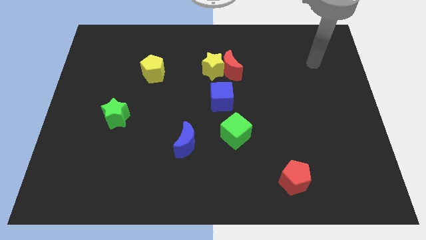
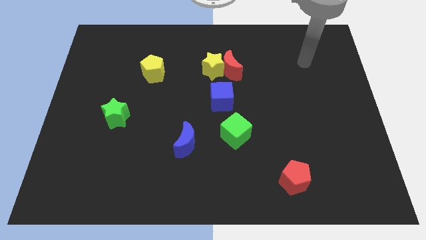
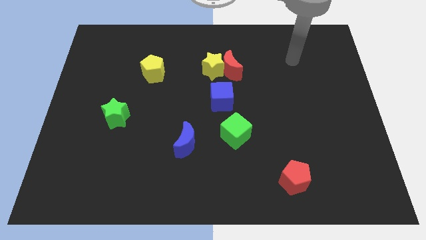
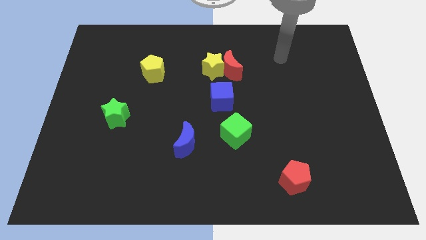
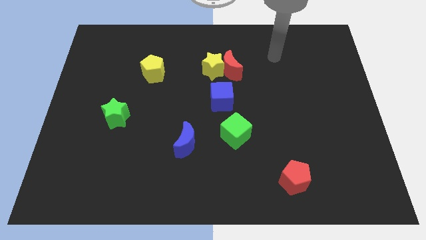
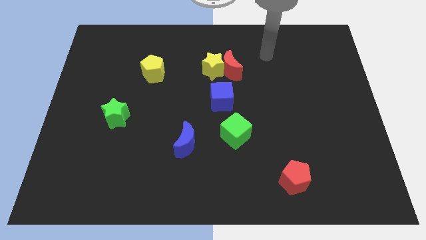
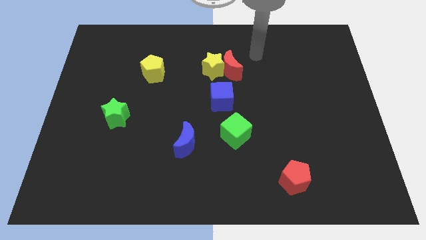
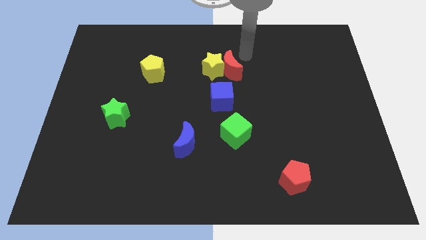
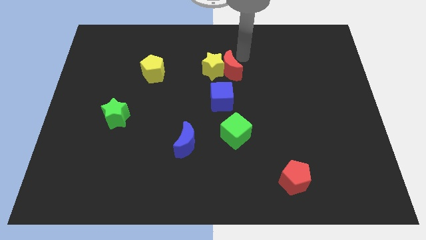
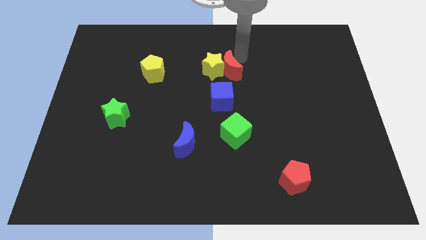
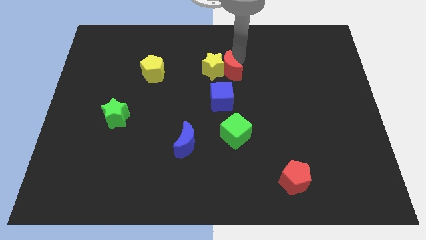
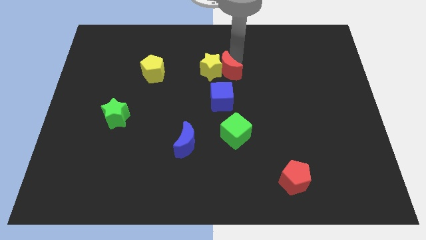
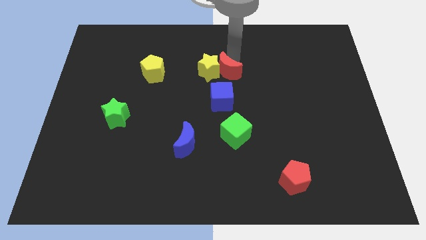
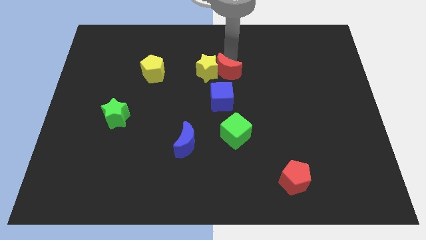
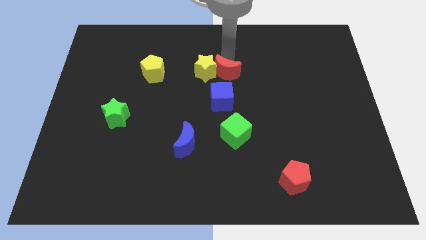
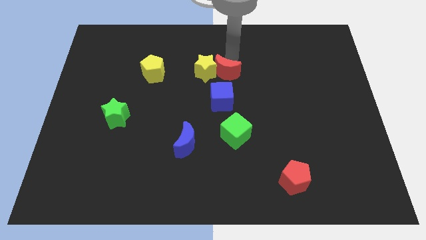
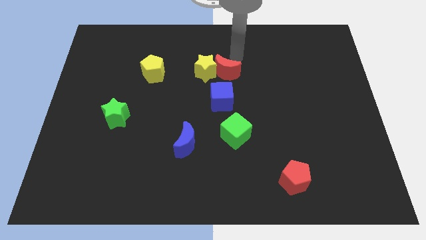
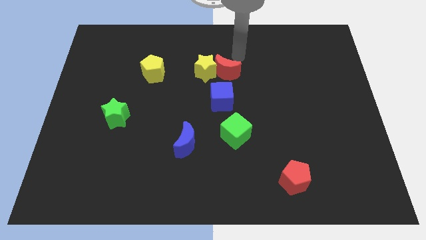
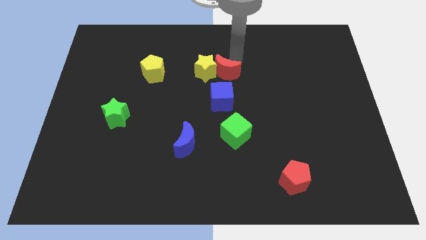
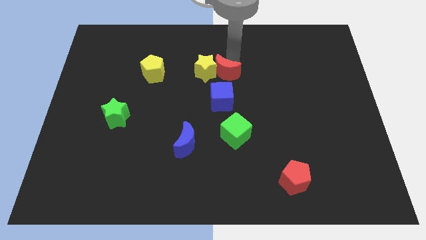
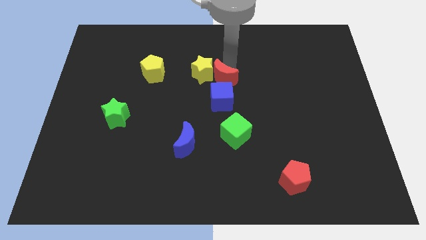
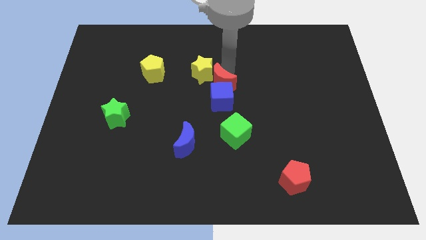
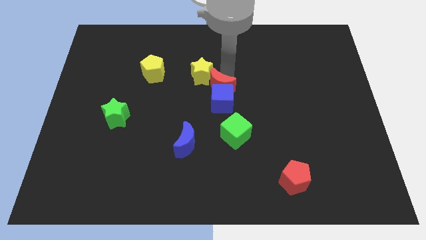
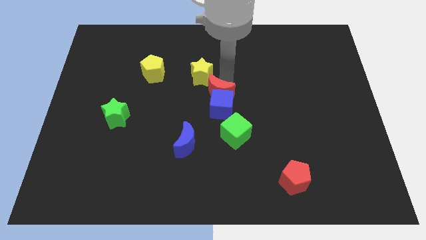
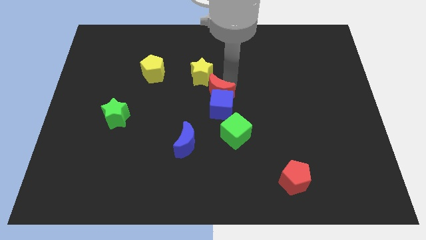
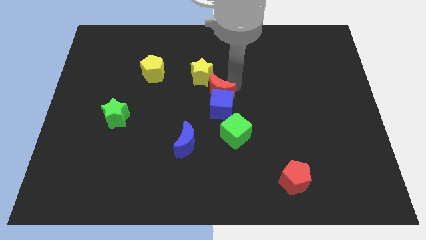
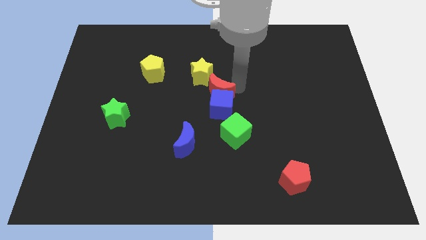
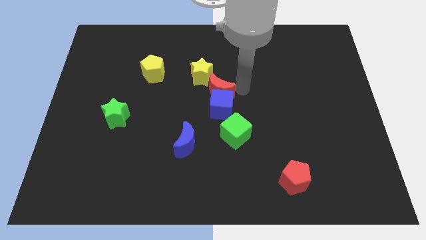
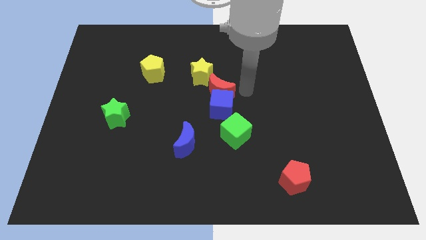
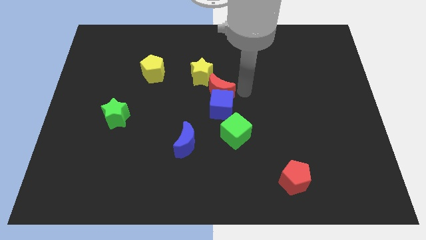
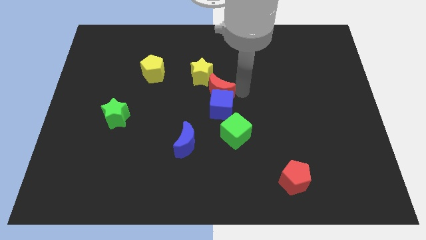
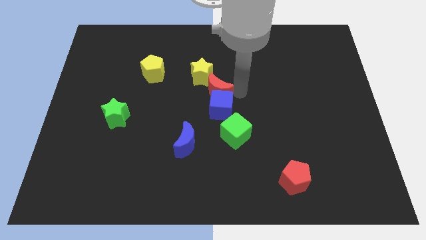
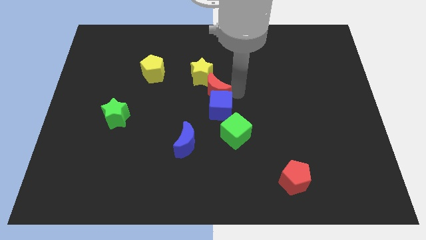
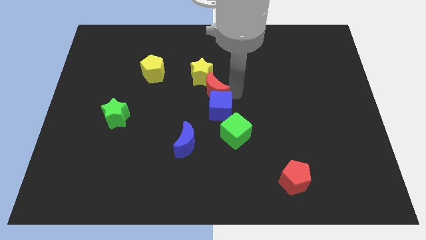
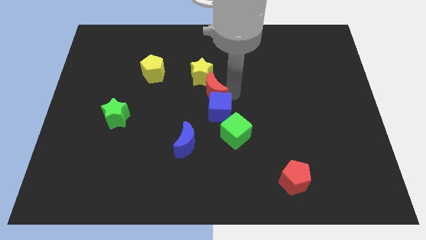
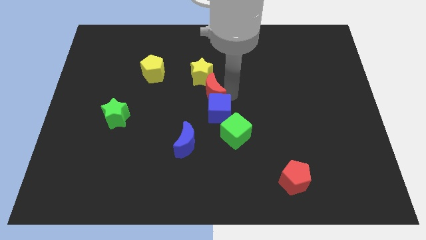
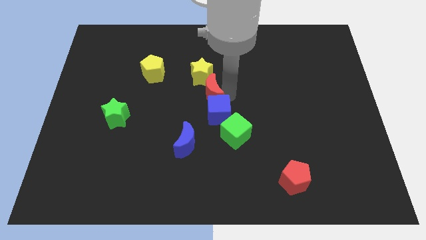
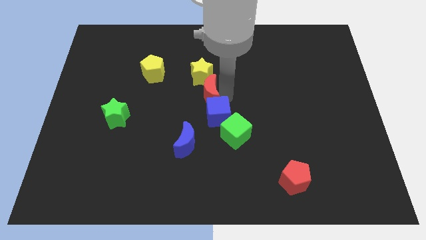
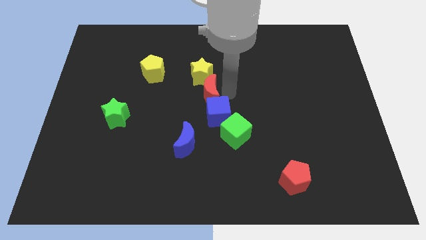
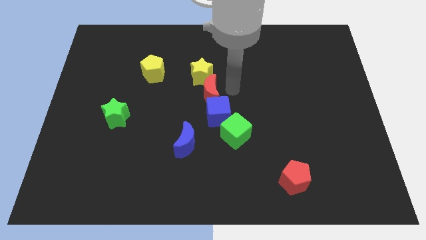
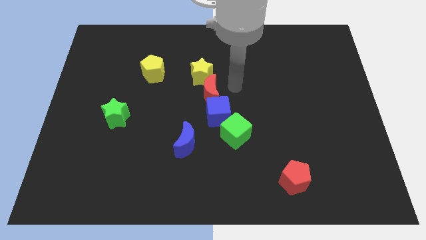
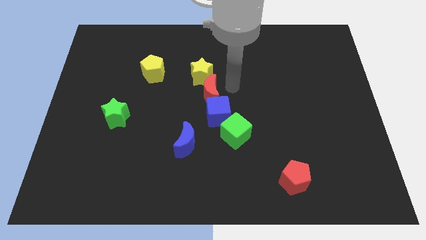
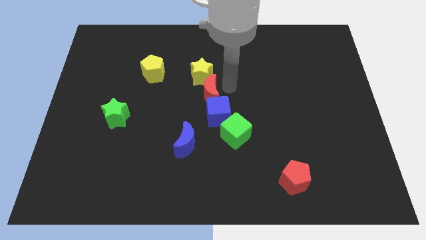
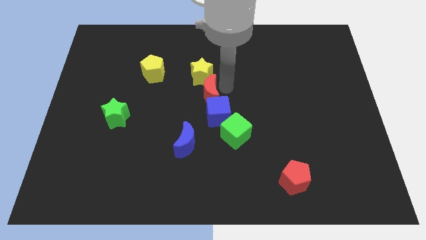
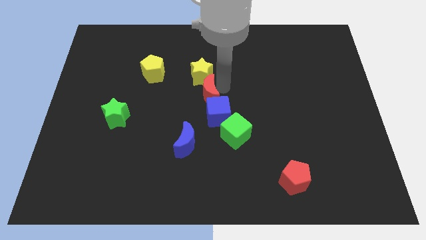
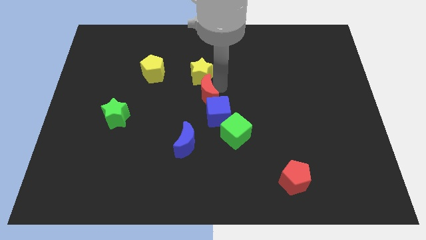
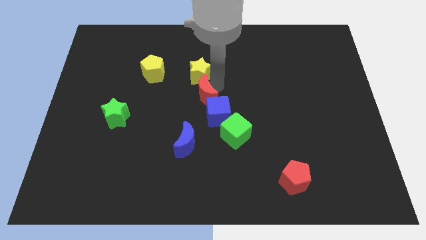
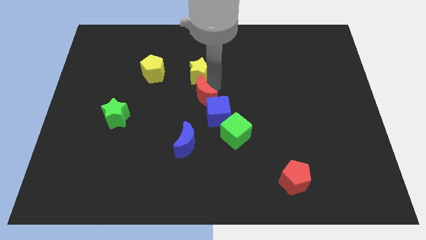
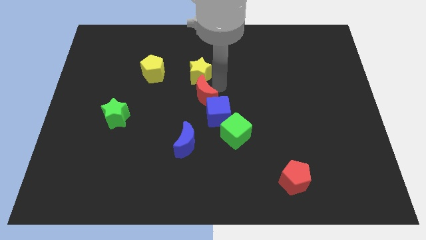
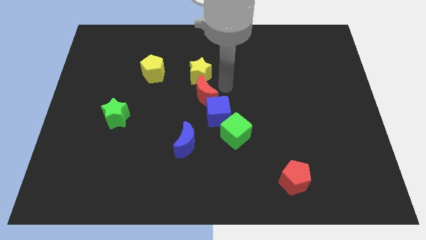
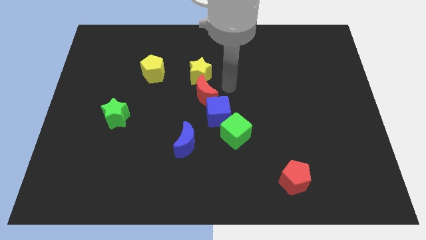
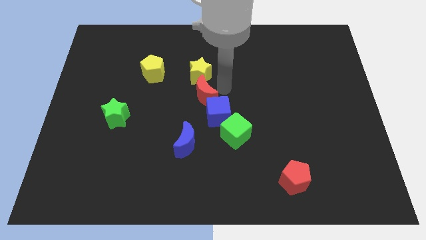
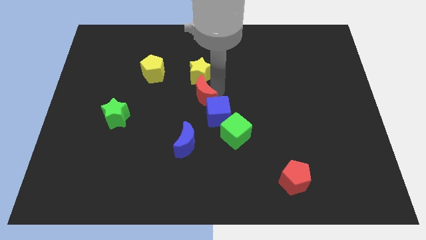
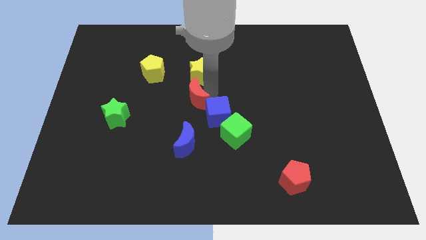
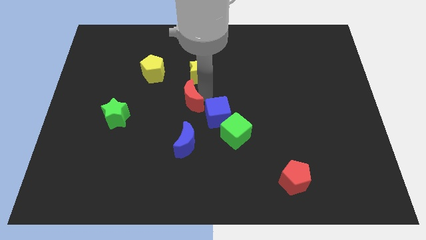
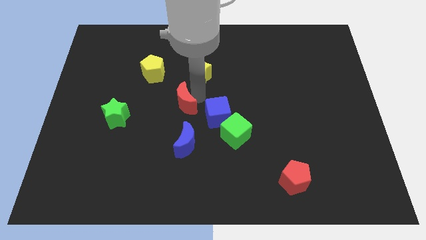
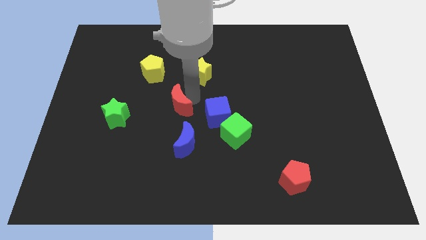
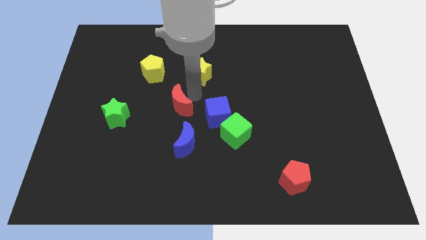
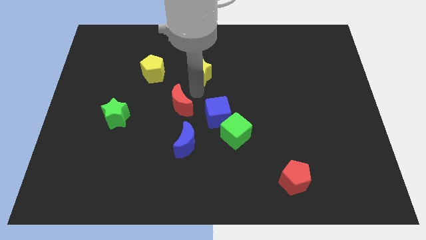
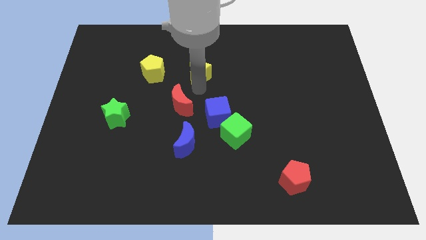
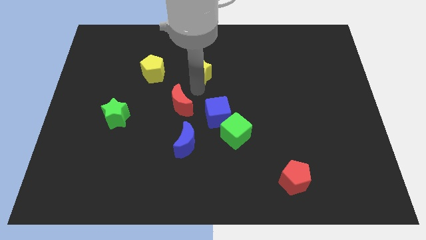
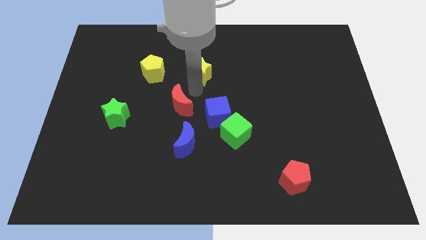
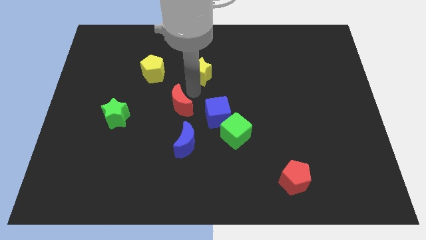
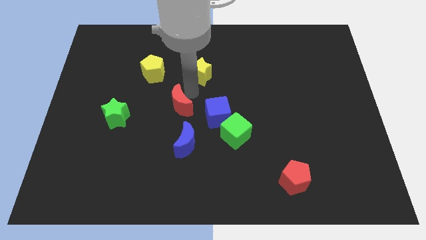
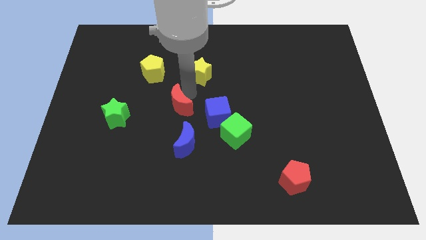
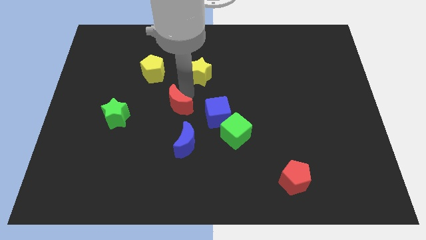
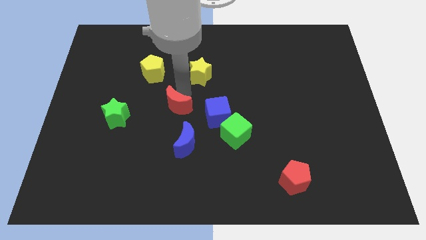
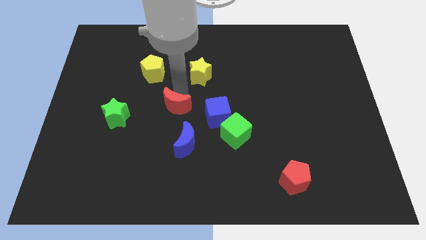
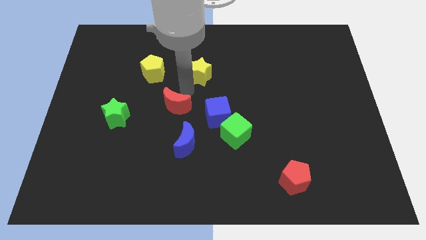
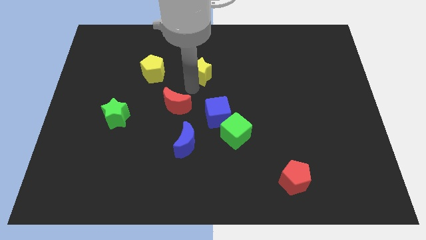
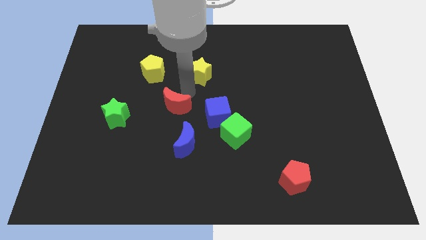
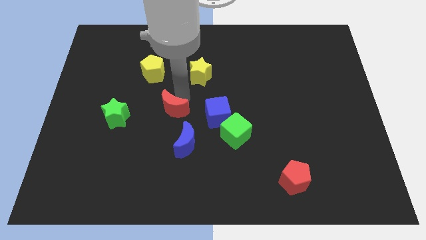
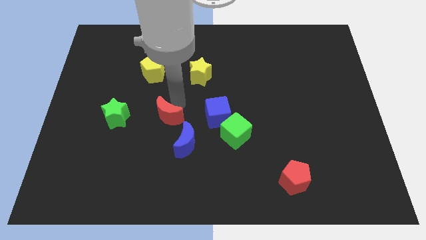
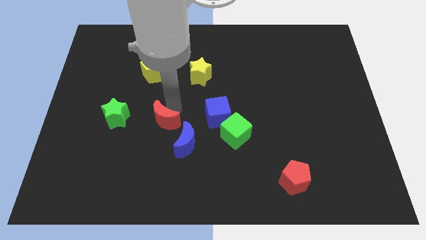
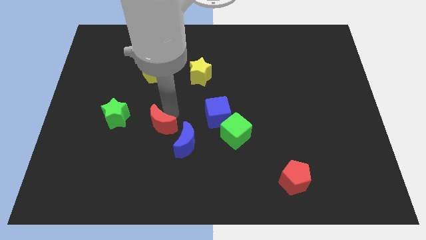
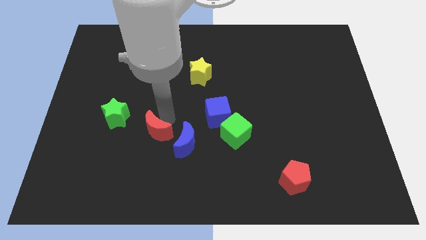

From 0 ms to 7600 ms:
move the red moon left of the blue moon

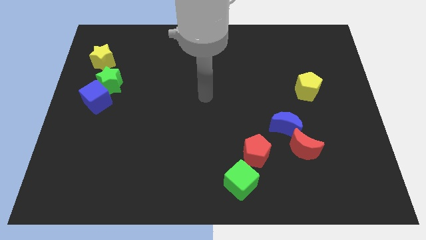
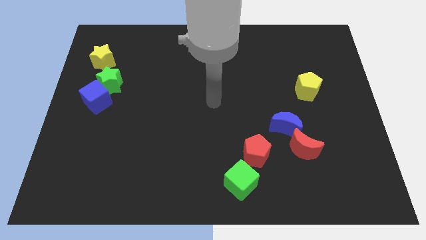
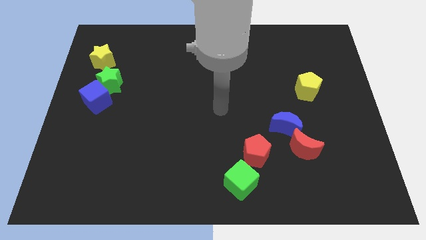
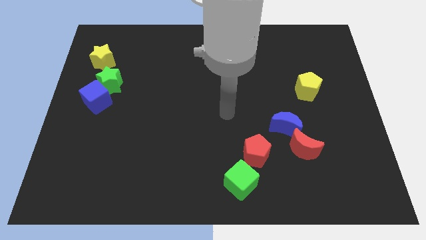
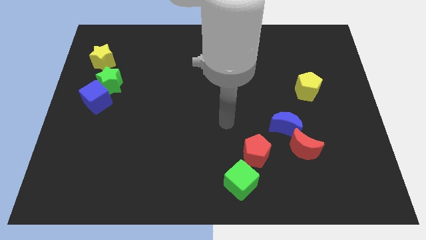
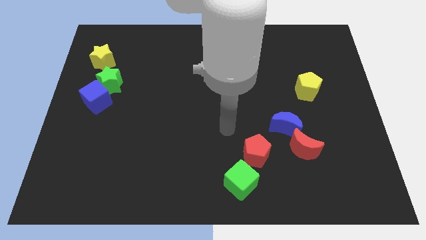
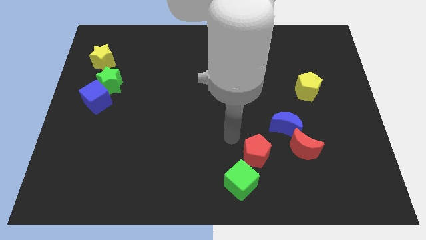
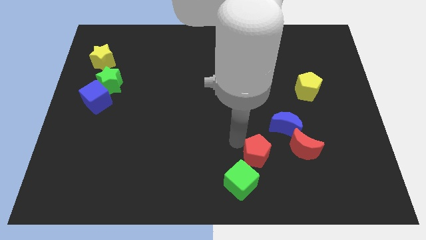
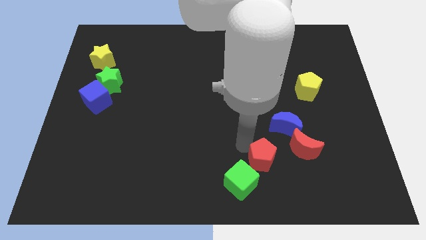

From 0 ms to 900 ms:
slide the red pentagon diagonally down and to the left of the red moon
